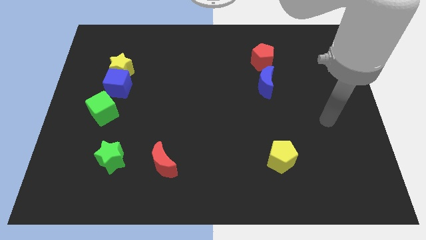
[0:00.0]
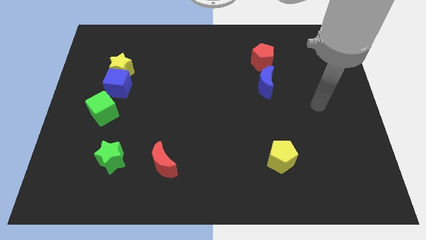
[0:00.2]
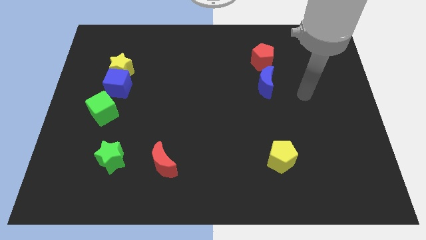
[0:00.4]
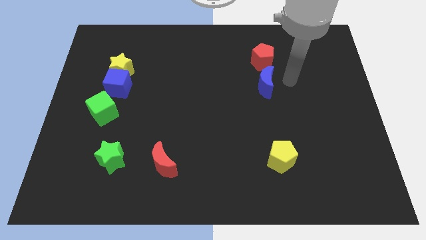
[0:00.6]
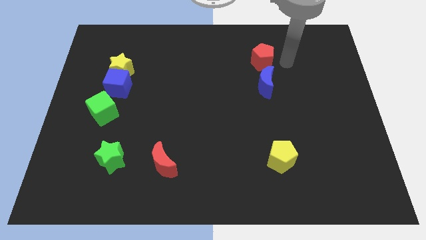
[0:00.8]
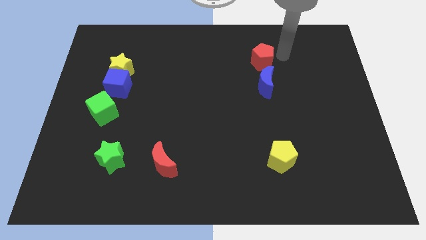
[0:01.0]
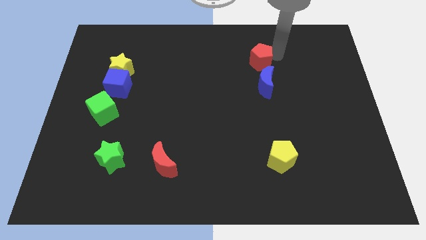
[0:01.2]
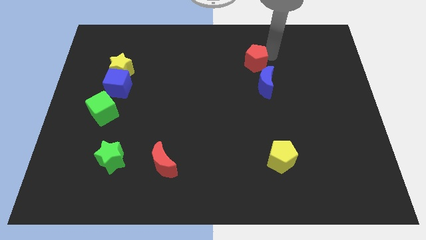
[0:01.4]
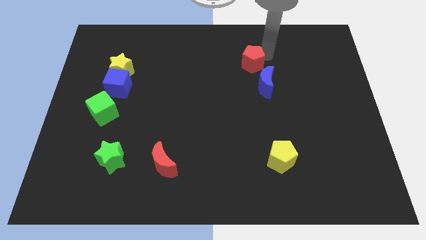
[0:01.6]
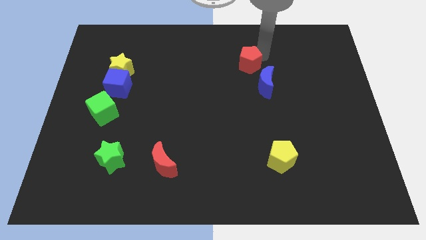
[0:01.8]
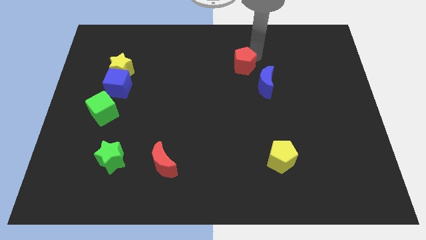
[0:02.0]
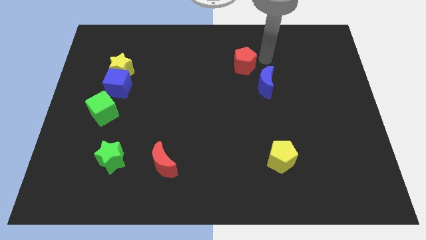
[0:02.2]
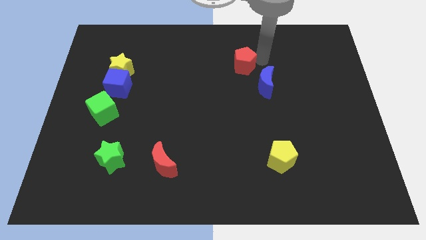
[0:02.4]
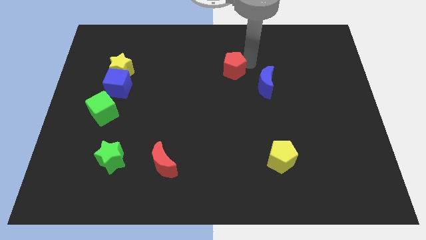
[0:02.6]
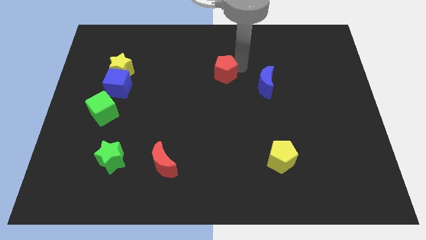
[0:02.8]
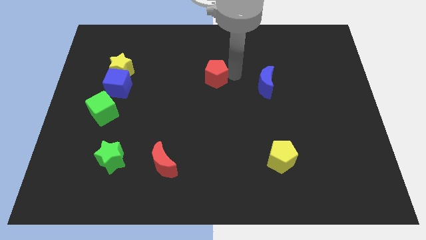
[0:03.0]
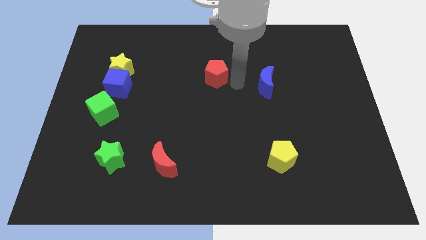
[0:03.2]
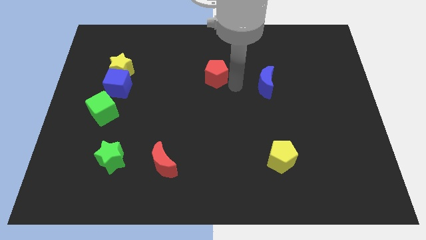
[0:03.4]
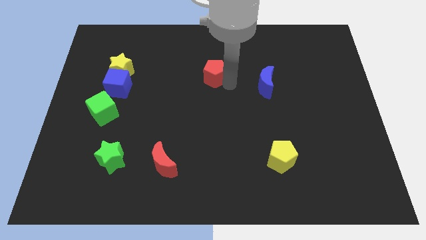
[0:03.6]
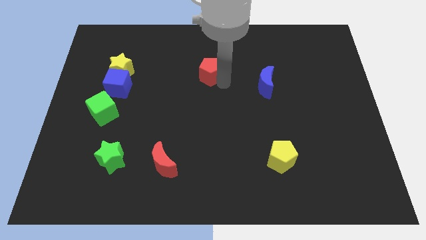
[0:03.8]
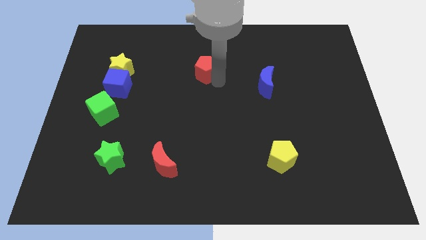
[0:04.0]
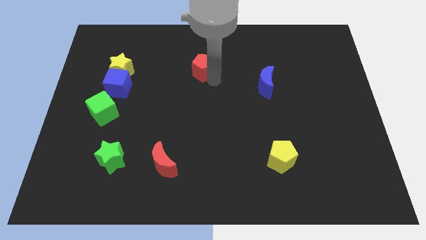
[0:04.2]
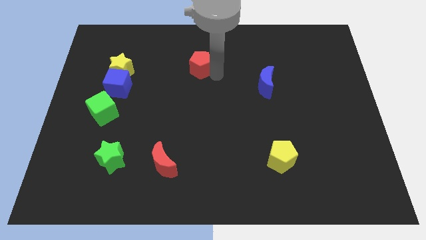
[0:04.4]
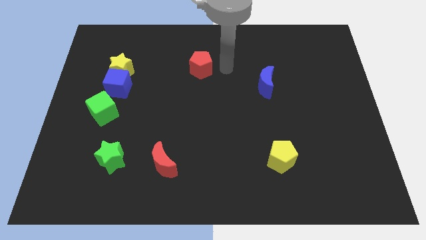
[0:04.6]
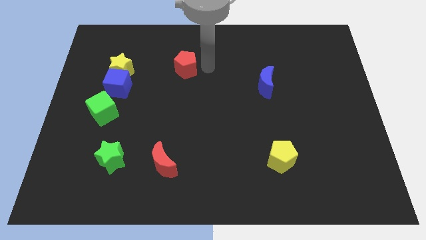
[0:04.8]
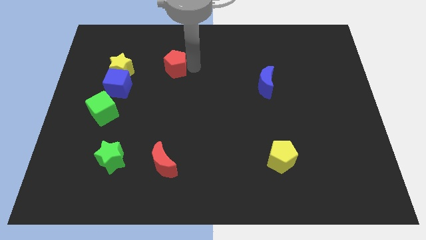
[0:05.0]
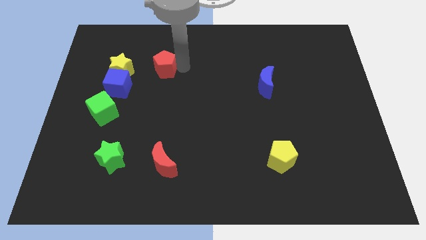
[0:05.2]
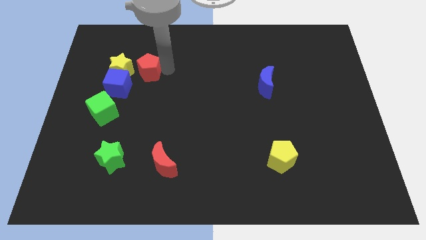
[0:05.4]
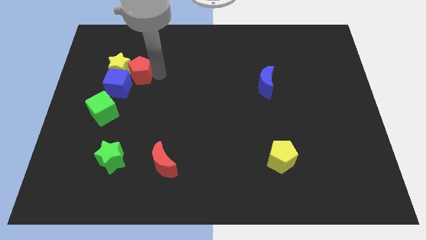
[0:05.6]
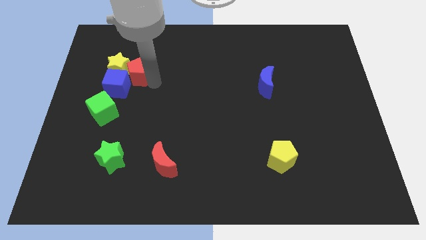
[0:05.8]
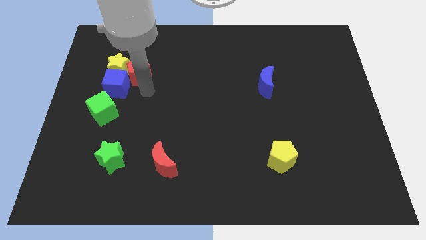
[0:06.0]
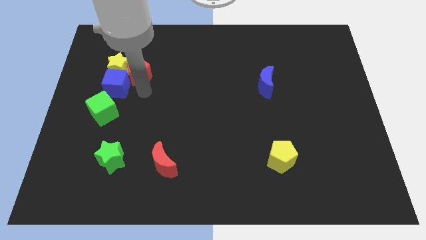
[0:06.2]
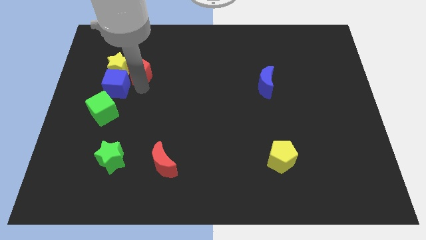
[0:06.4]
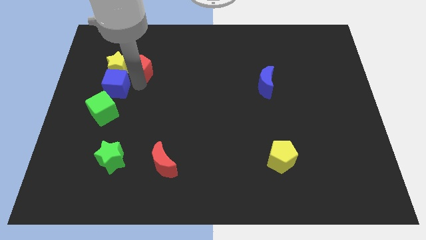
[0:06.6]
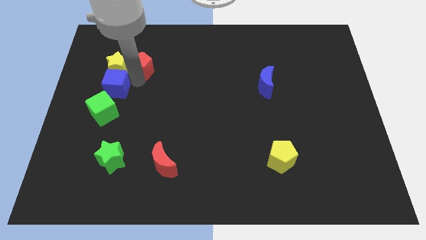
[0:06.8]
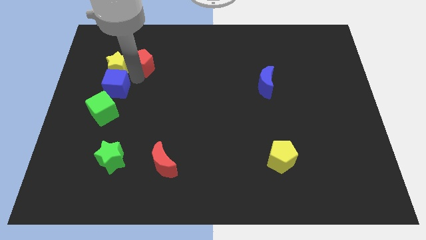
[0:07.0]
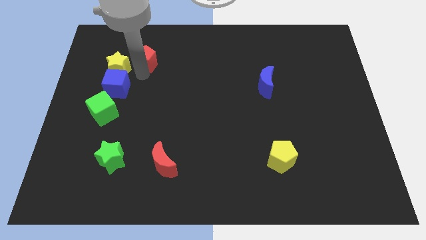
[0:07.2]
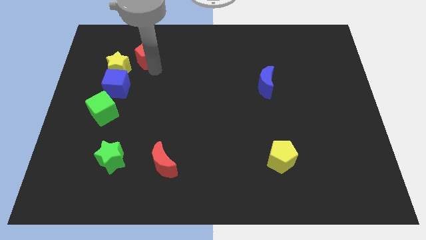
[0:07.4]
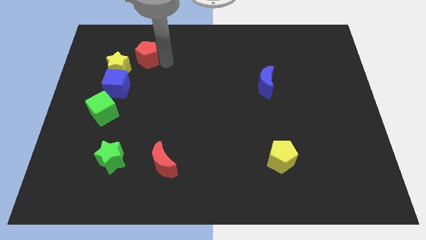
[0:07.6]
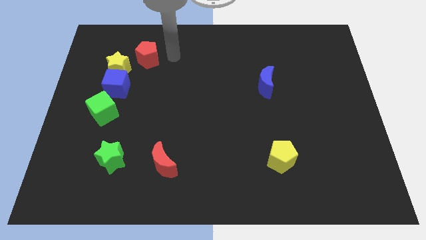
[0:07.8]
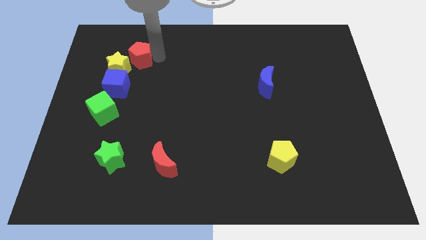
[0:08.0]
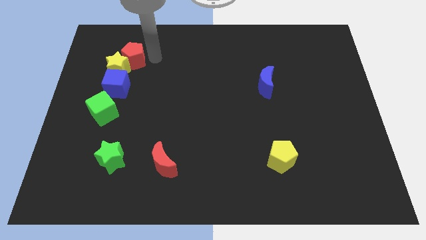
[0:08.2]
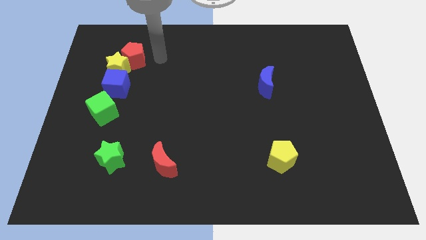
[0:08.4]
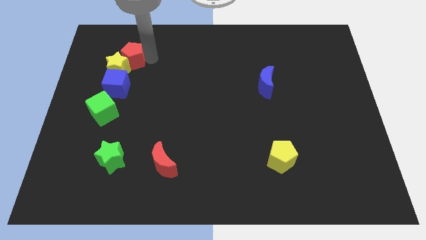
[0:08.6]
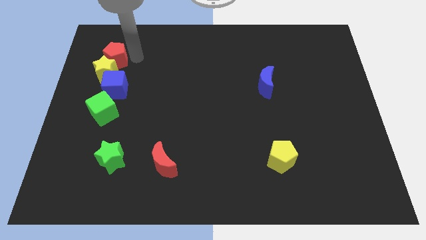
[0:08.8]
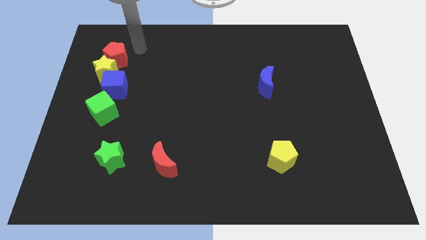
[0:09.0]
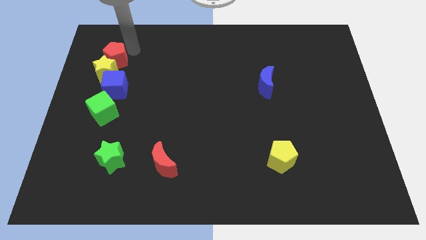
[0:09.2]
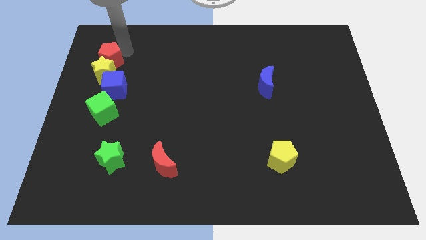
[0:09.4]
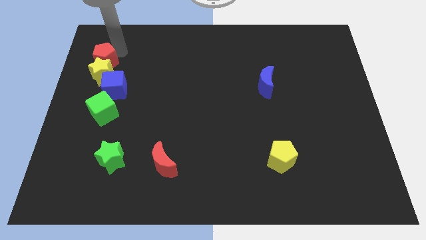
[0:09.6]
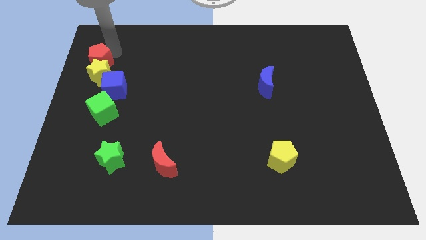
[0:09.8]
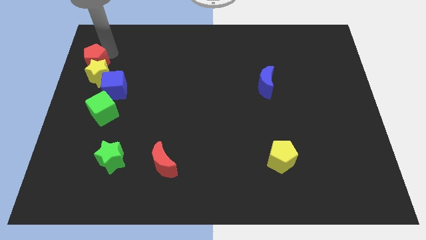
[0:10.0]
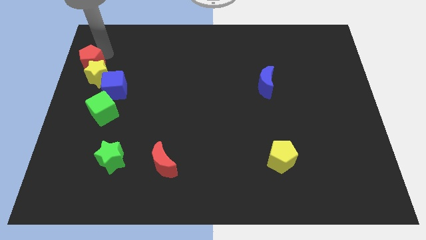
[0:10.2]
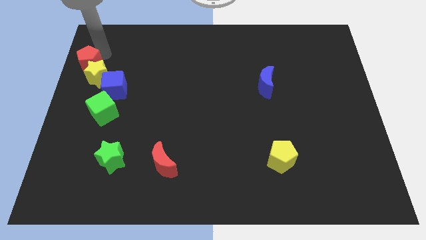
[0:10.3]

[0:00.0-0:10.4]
slide the red pentagon to the left side

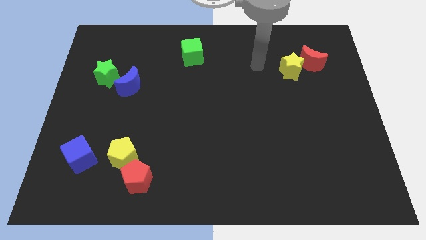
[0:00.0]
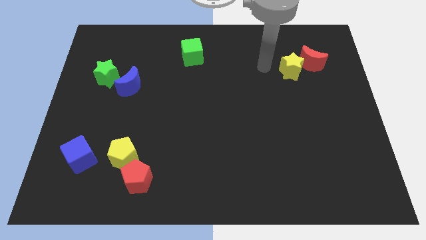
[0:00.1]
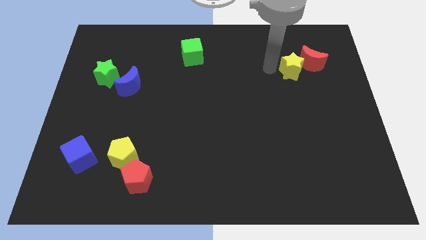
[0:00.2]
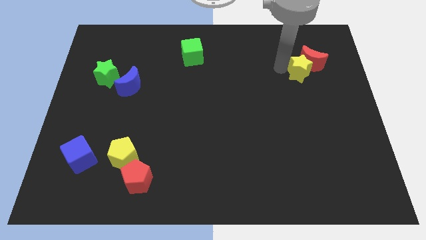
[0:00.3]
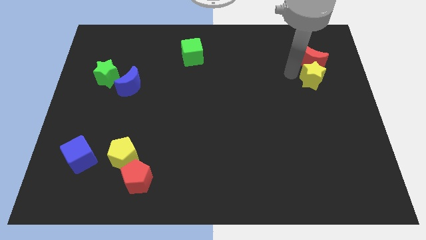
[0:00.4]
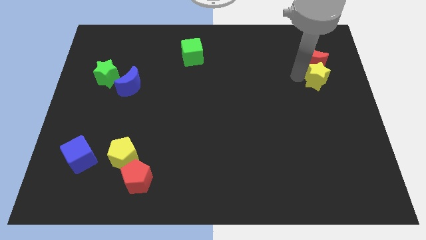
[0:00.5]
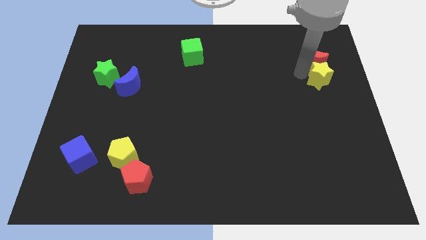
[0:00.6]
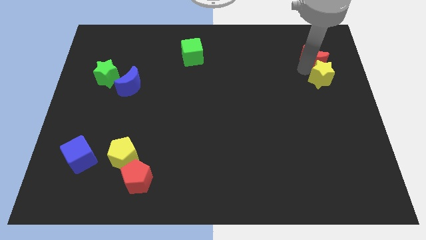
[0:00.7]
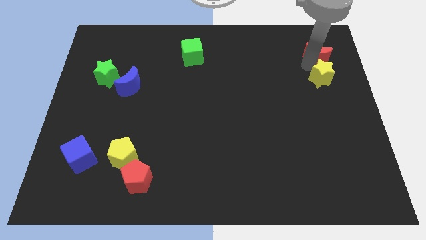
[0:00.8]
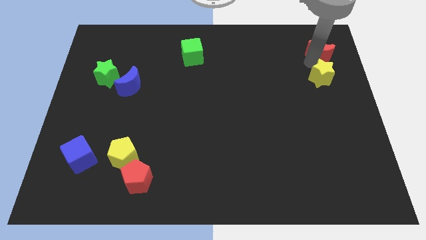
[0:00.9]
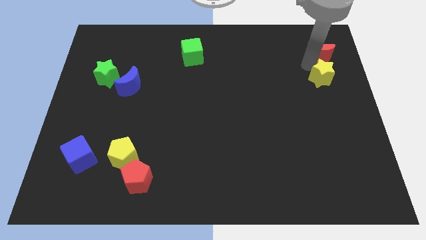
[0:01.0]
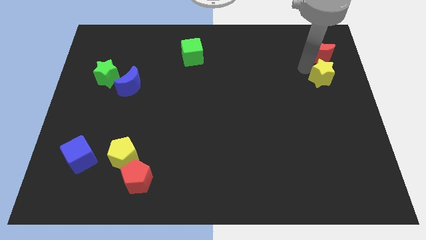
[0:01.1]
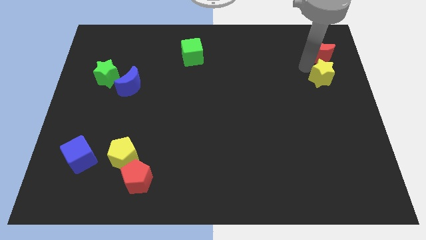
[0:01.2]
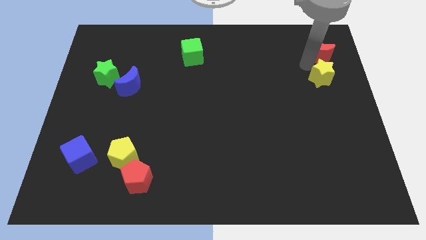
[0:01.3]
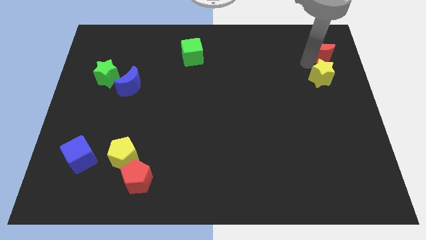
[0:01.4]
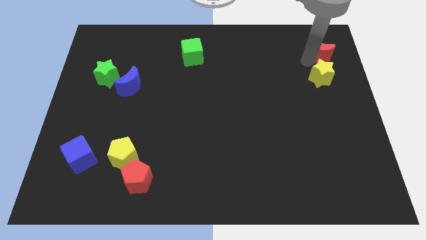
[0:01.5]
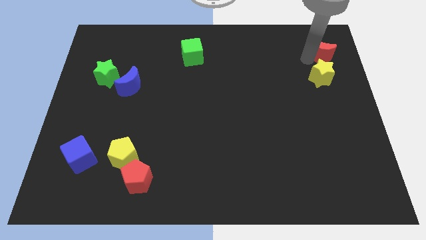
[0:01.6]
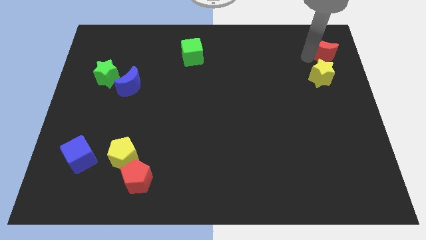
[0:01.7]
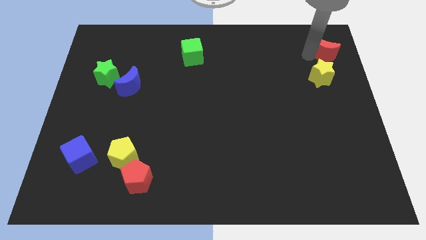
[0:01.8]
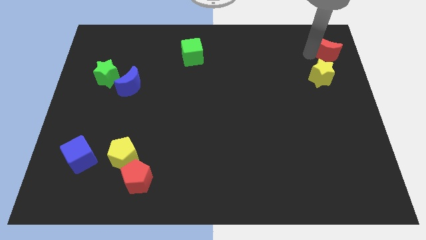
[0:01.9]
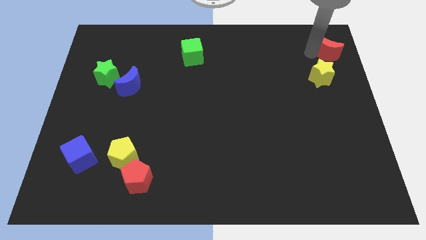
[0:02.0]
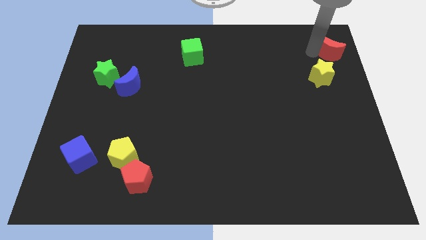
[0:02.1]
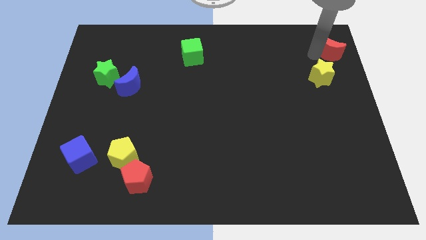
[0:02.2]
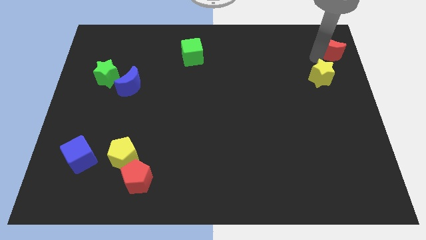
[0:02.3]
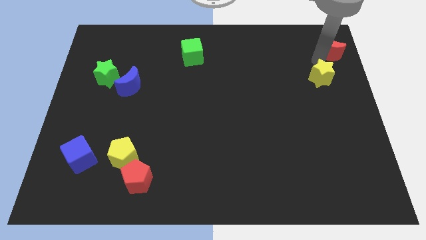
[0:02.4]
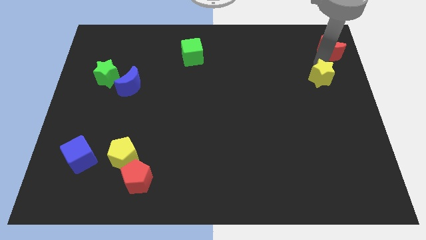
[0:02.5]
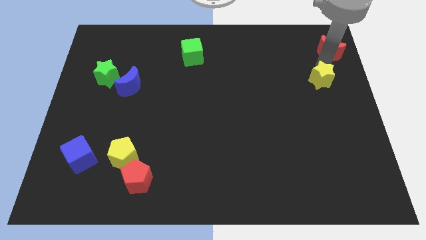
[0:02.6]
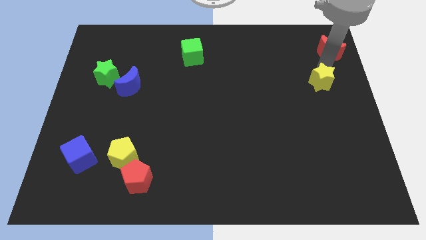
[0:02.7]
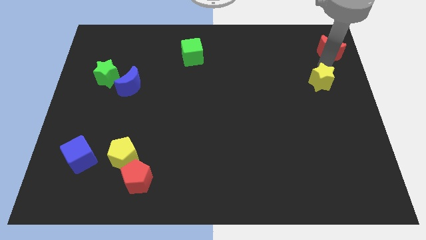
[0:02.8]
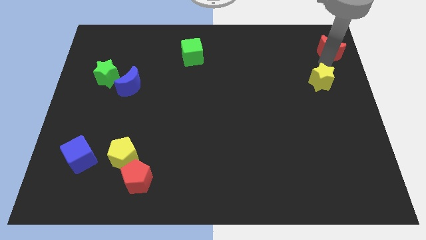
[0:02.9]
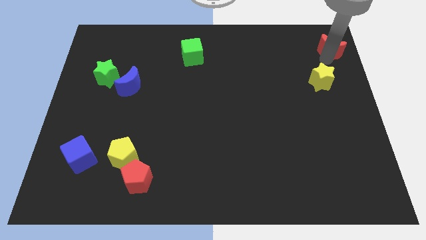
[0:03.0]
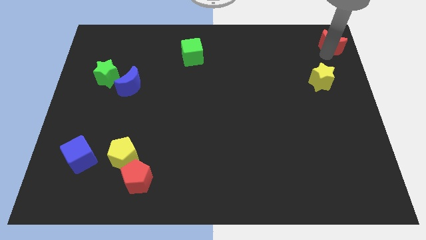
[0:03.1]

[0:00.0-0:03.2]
slide the red moon to the top right corner
